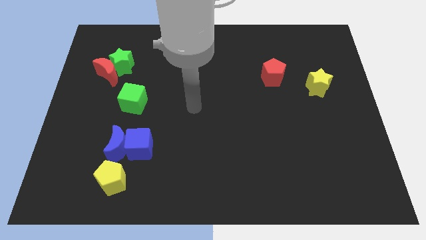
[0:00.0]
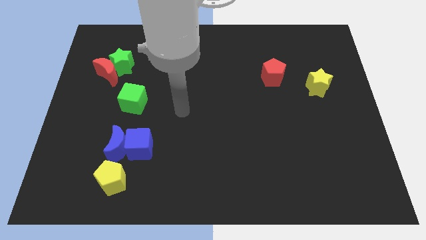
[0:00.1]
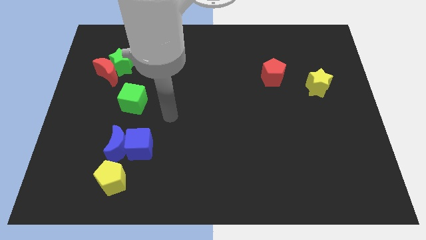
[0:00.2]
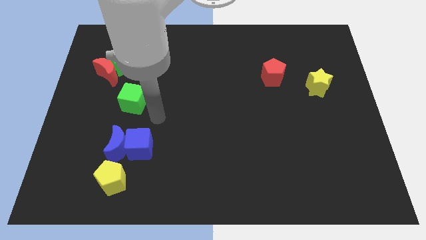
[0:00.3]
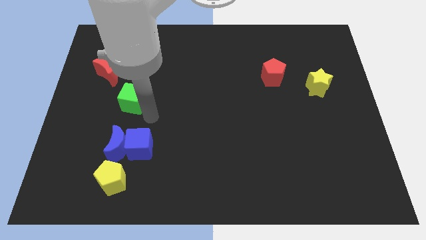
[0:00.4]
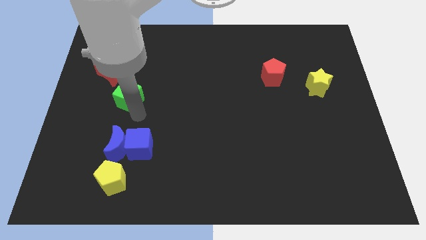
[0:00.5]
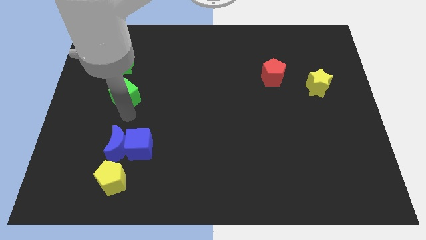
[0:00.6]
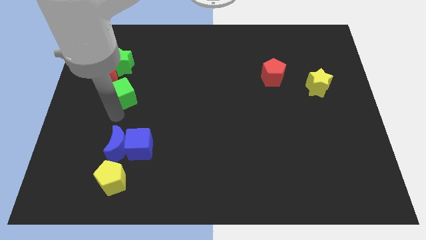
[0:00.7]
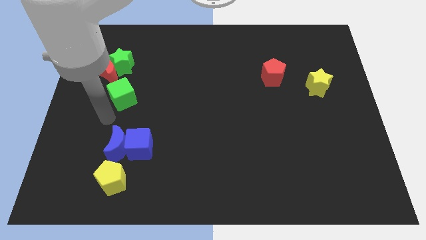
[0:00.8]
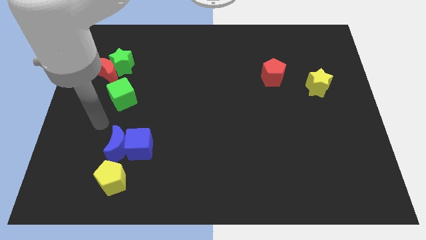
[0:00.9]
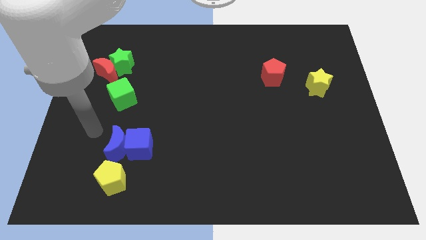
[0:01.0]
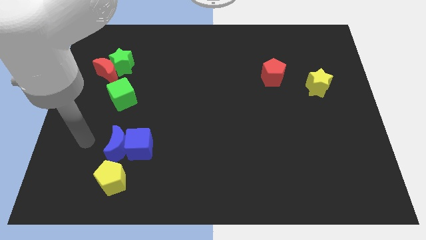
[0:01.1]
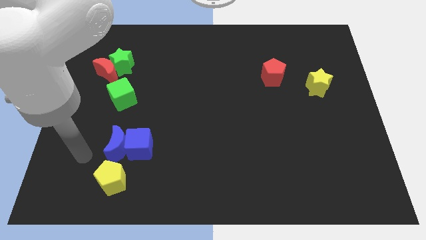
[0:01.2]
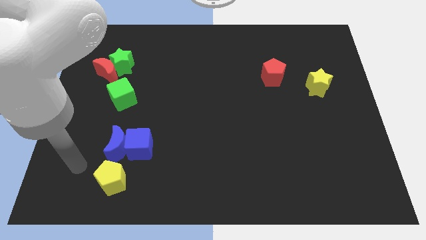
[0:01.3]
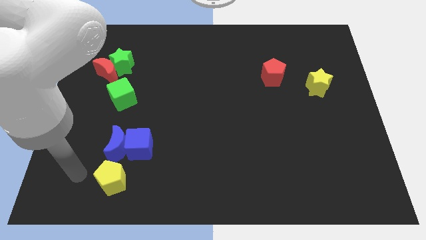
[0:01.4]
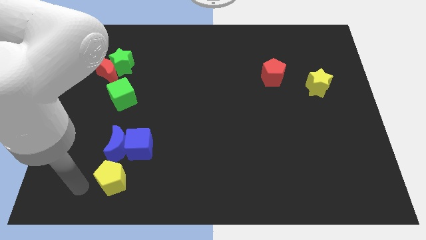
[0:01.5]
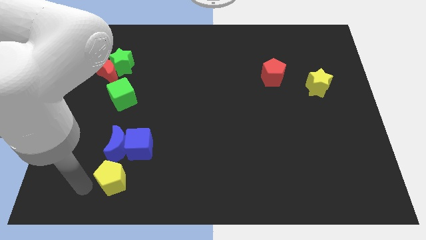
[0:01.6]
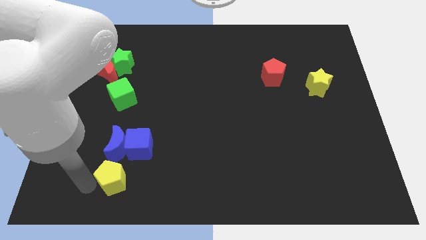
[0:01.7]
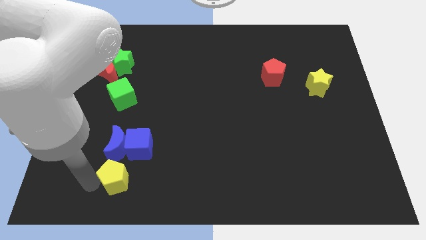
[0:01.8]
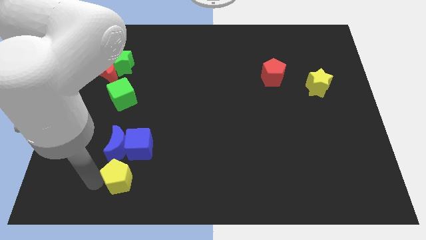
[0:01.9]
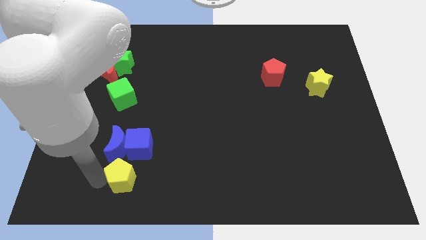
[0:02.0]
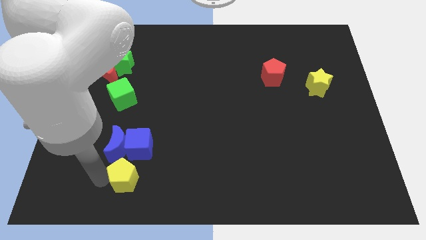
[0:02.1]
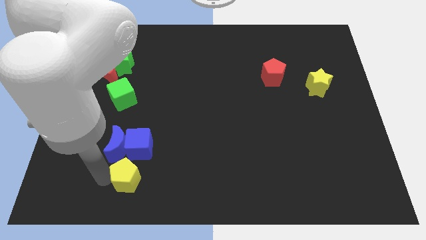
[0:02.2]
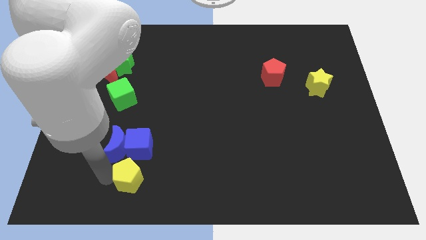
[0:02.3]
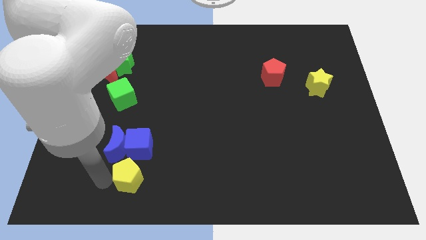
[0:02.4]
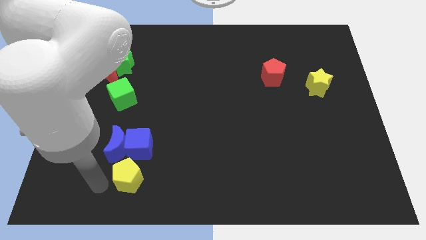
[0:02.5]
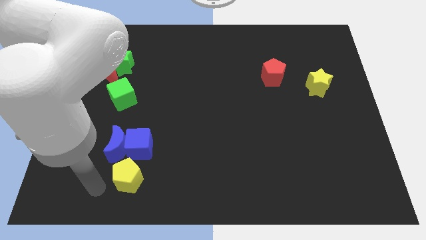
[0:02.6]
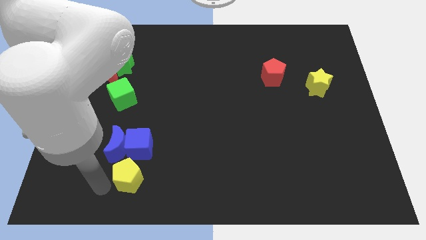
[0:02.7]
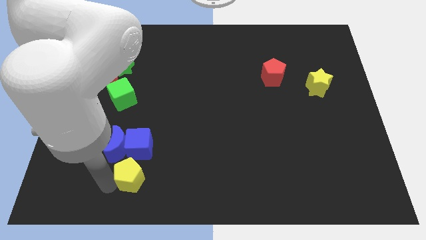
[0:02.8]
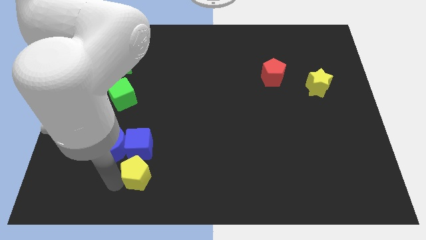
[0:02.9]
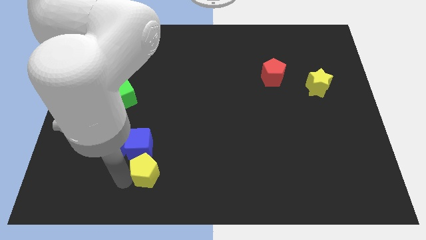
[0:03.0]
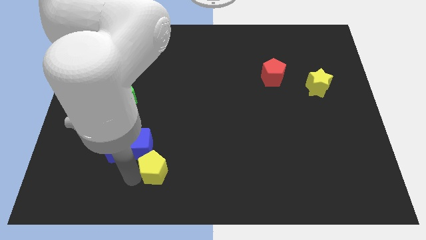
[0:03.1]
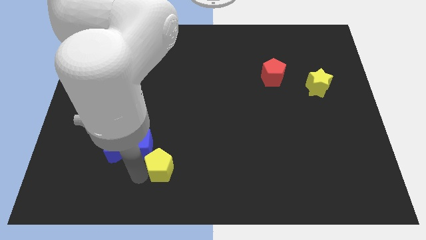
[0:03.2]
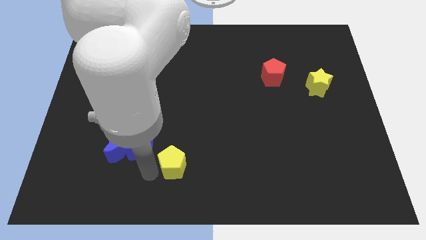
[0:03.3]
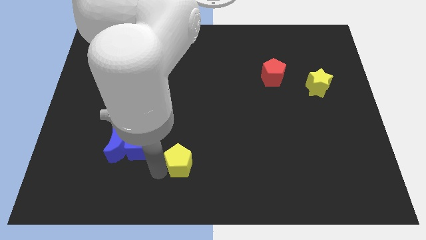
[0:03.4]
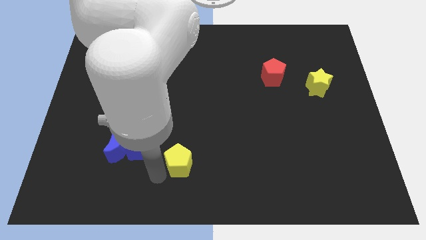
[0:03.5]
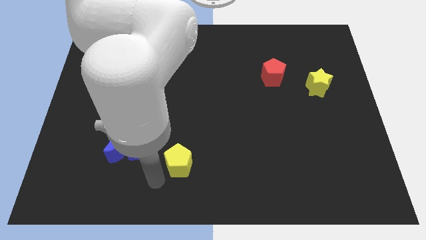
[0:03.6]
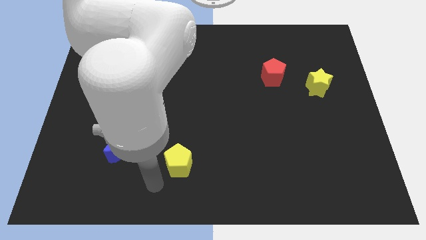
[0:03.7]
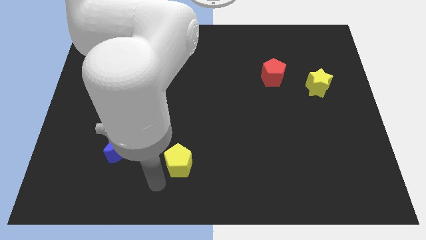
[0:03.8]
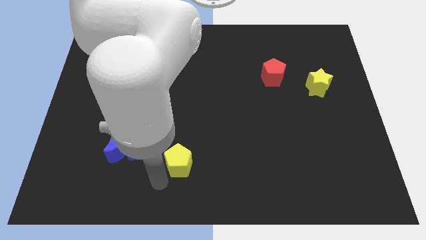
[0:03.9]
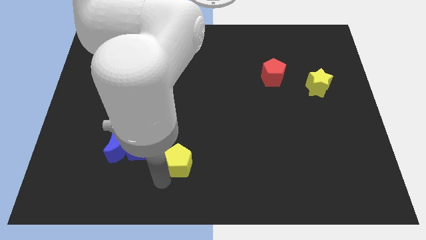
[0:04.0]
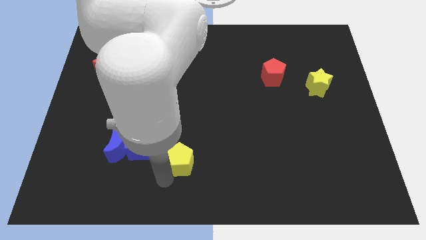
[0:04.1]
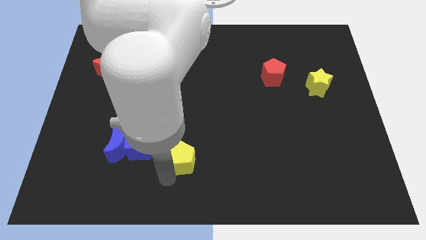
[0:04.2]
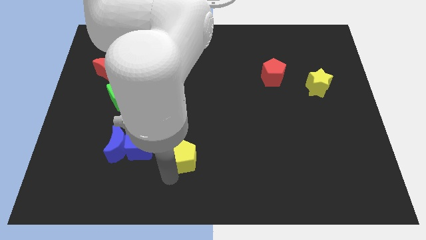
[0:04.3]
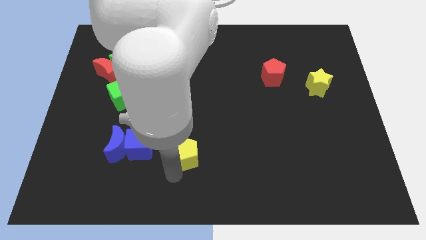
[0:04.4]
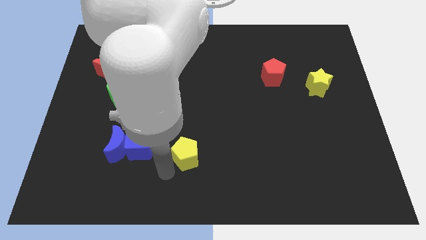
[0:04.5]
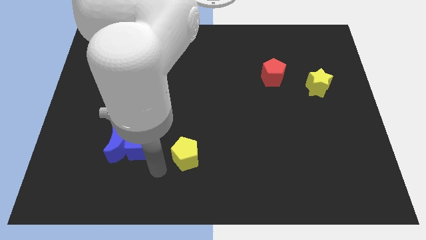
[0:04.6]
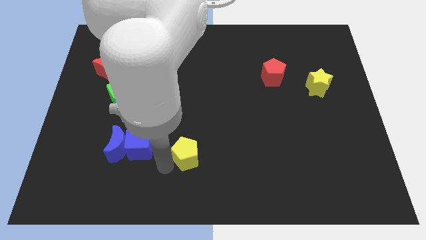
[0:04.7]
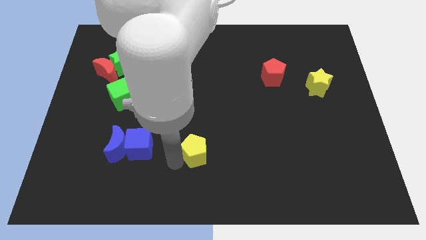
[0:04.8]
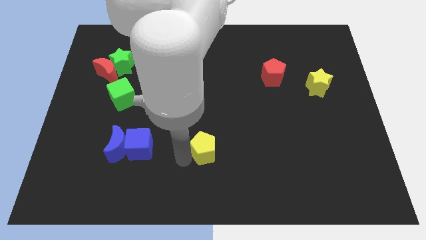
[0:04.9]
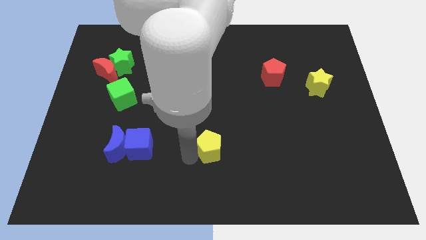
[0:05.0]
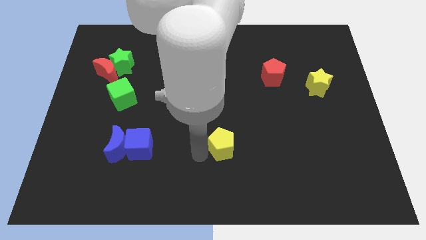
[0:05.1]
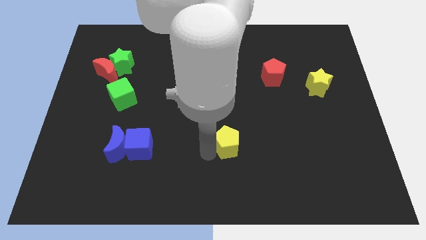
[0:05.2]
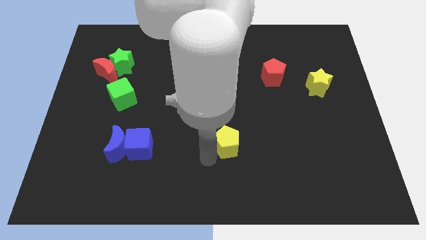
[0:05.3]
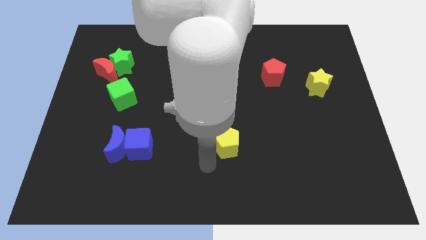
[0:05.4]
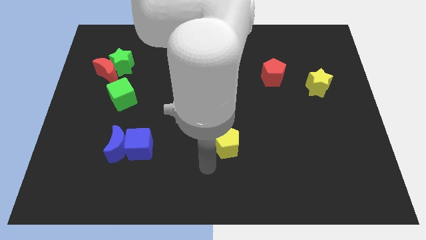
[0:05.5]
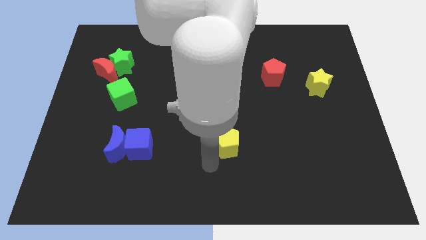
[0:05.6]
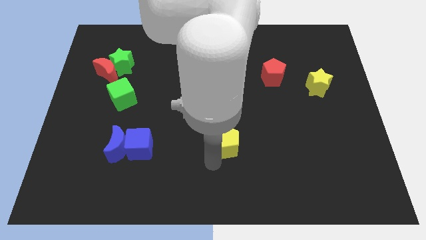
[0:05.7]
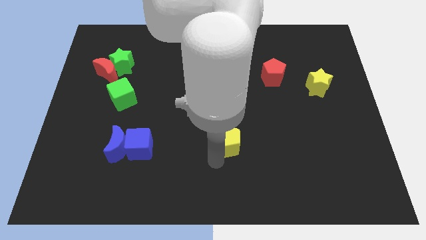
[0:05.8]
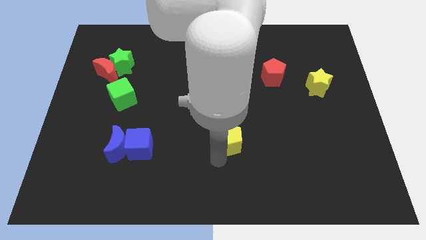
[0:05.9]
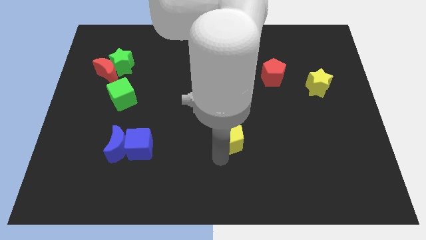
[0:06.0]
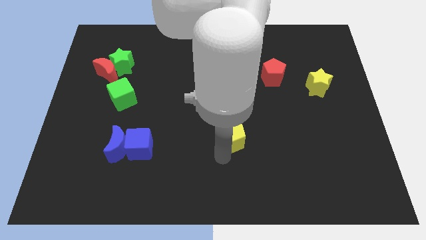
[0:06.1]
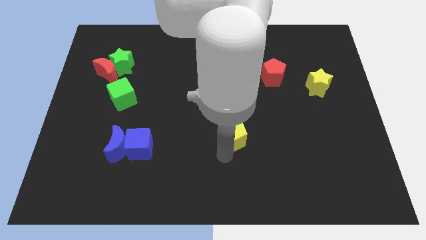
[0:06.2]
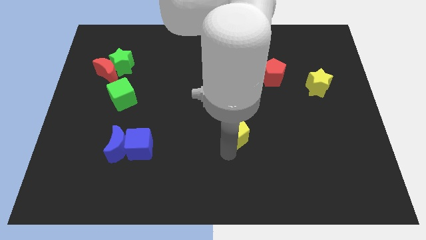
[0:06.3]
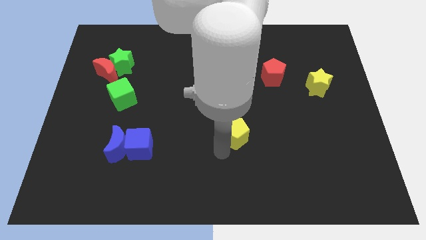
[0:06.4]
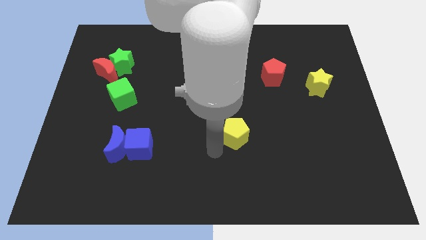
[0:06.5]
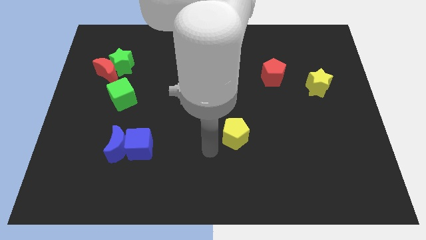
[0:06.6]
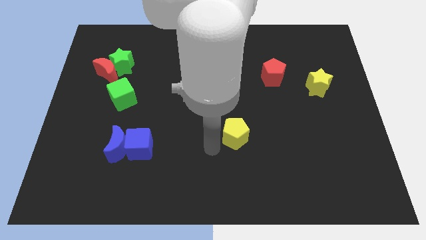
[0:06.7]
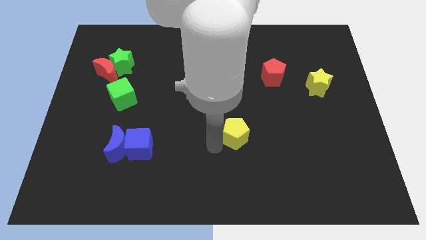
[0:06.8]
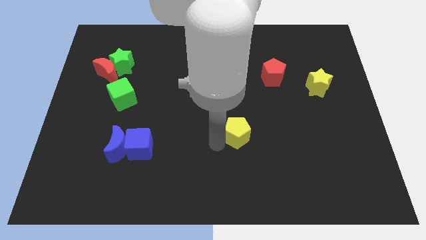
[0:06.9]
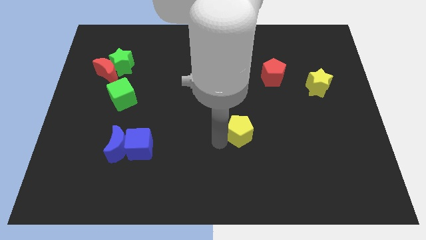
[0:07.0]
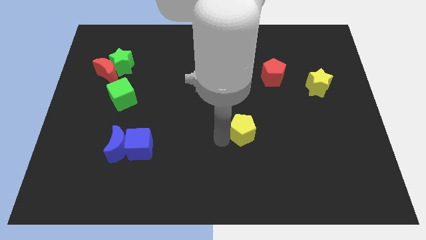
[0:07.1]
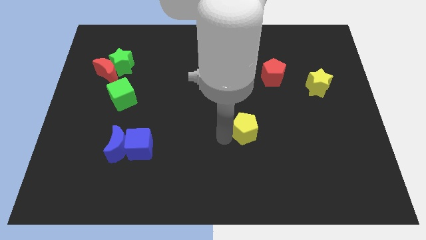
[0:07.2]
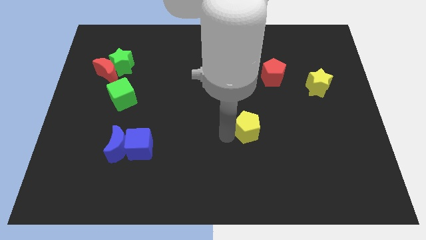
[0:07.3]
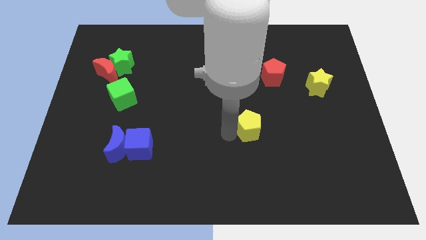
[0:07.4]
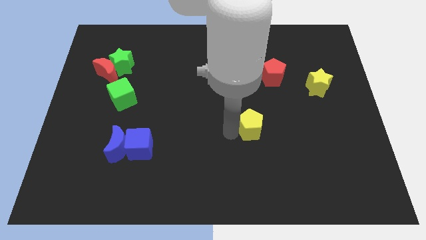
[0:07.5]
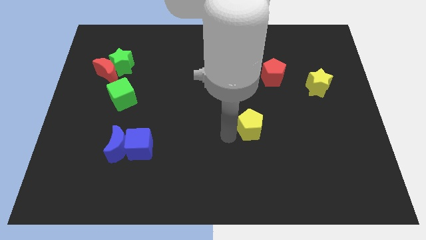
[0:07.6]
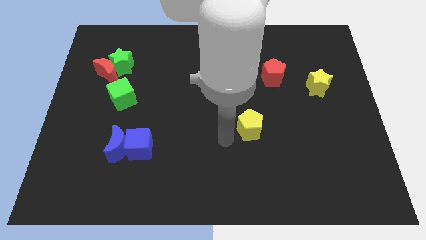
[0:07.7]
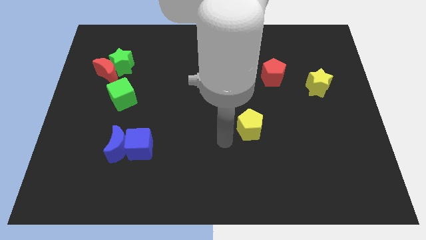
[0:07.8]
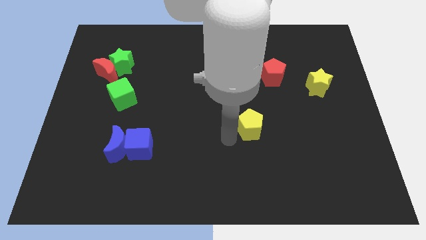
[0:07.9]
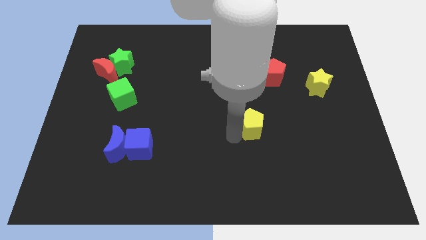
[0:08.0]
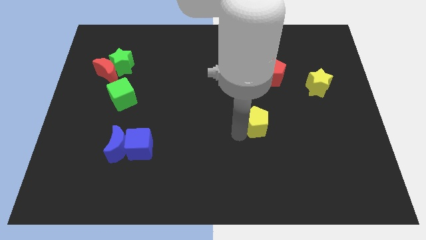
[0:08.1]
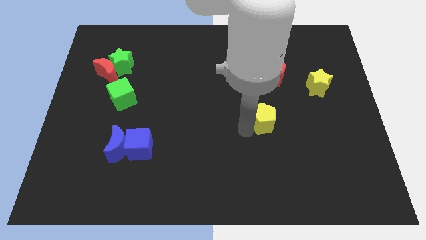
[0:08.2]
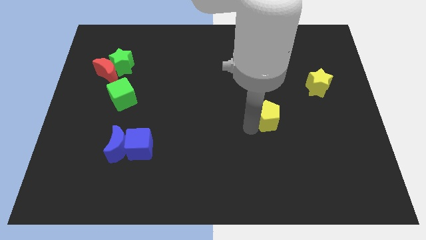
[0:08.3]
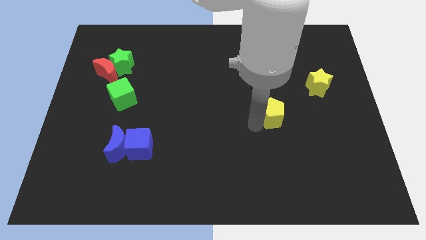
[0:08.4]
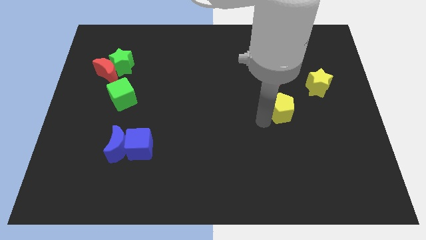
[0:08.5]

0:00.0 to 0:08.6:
move the yellow pentagon diagonally down and to the left of the yellow star
